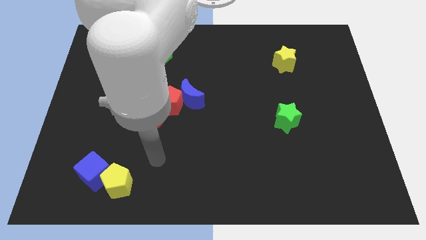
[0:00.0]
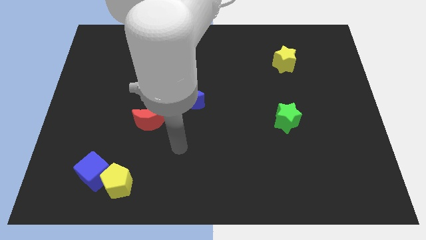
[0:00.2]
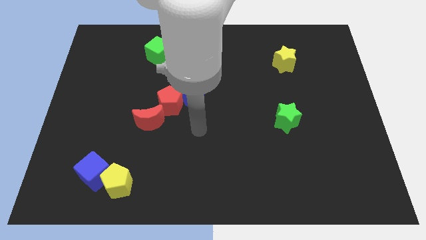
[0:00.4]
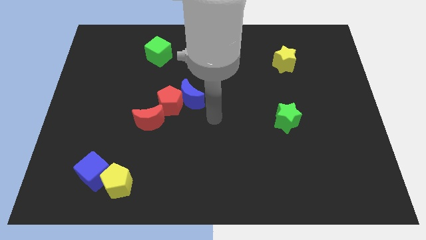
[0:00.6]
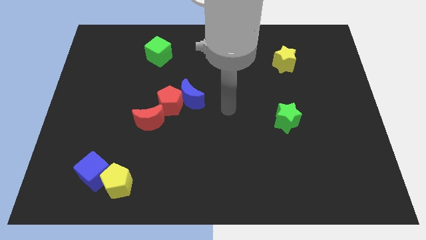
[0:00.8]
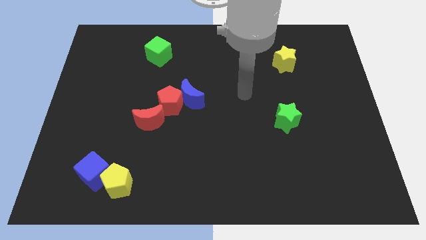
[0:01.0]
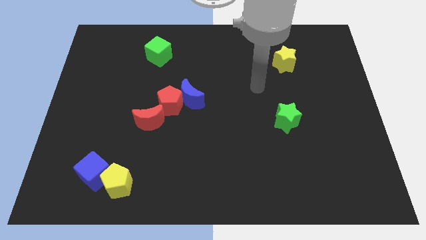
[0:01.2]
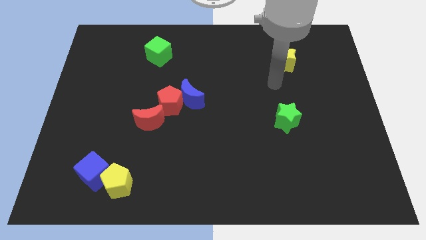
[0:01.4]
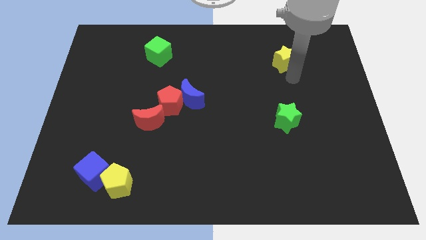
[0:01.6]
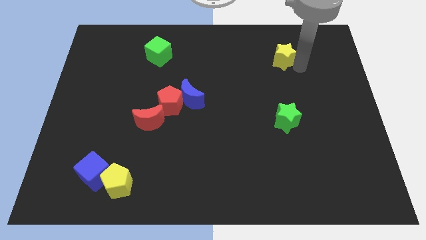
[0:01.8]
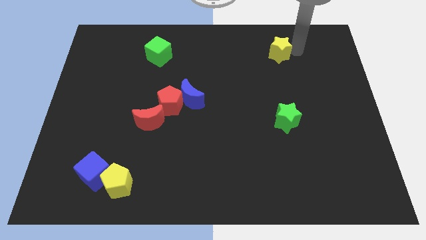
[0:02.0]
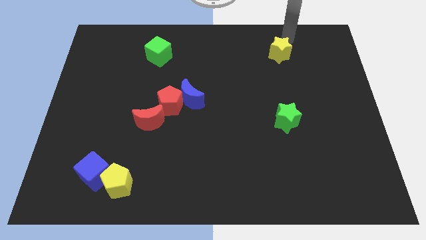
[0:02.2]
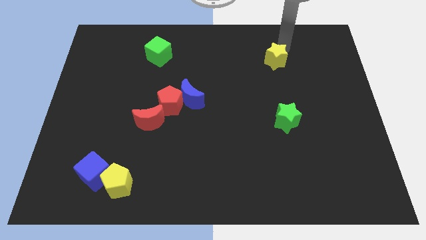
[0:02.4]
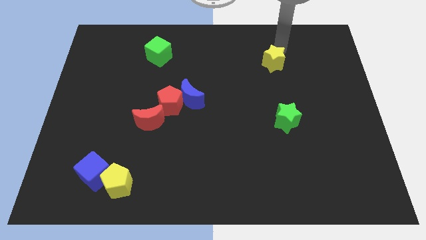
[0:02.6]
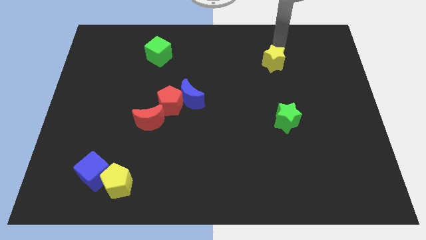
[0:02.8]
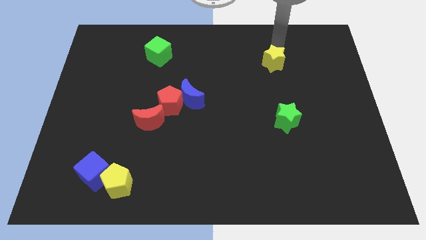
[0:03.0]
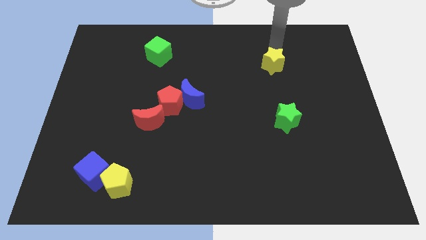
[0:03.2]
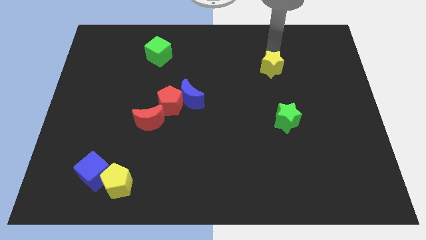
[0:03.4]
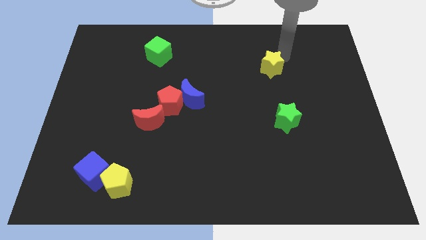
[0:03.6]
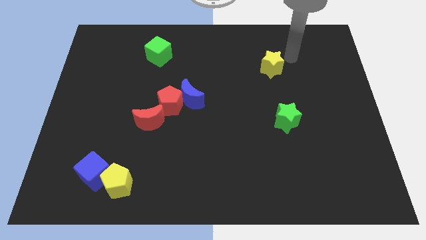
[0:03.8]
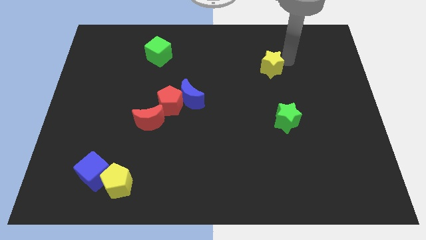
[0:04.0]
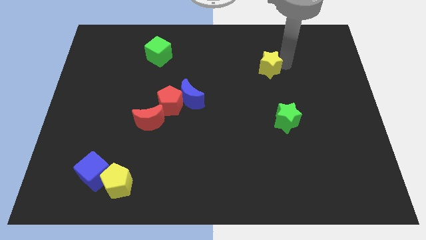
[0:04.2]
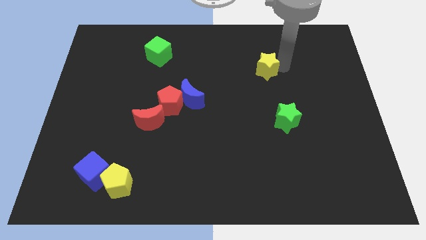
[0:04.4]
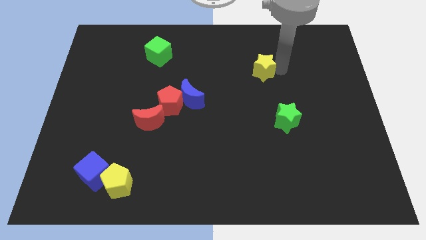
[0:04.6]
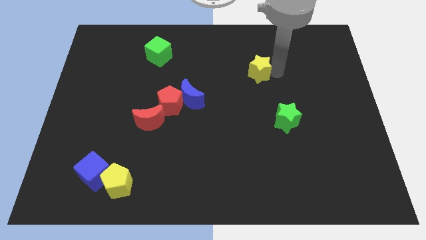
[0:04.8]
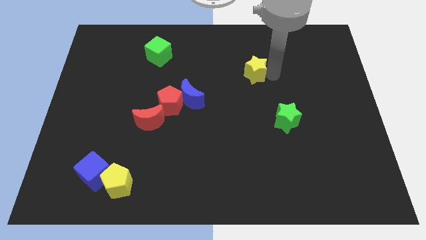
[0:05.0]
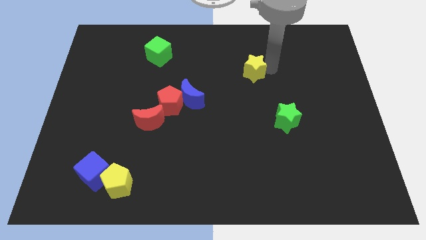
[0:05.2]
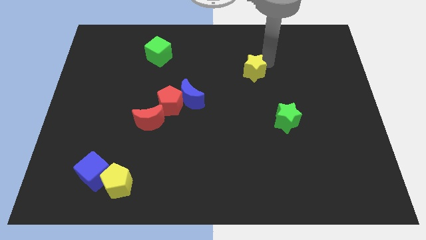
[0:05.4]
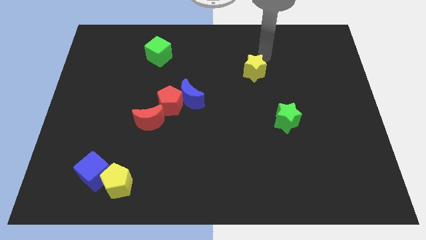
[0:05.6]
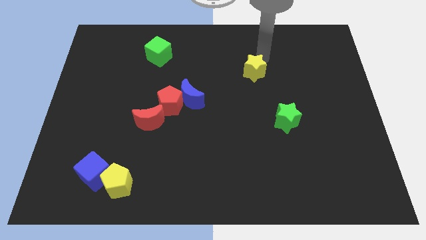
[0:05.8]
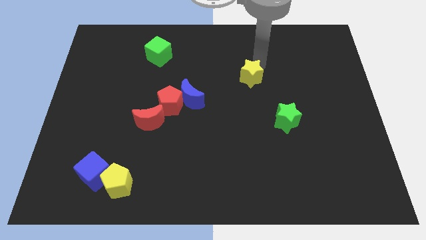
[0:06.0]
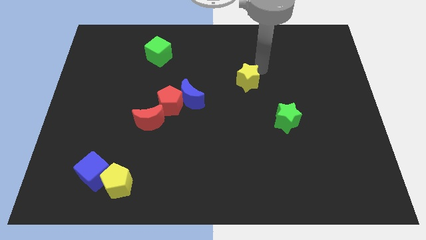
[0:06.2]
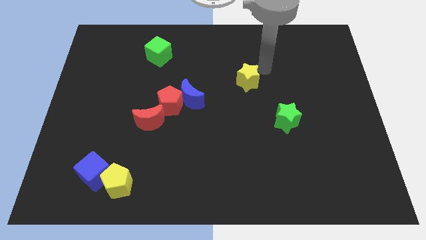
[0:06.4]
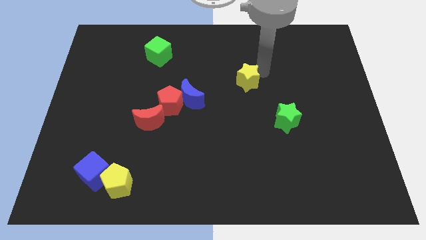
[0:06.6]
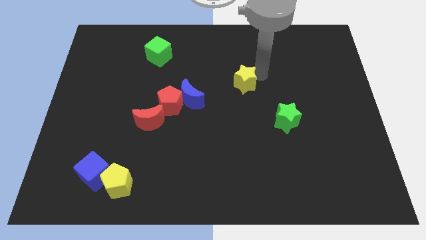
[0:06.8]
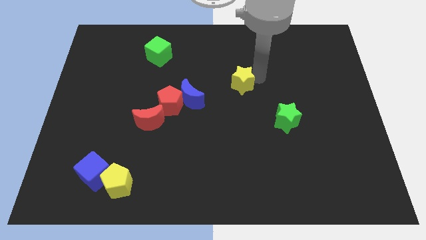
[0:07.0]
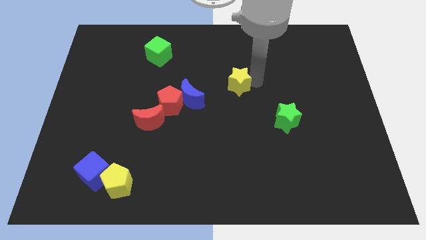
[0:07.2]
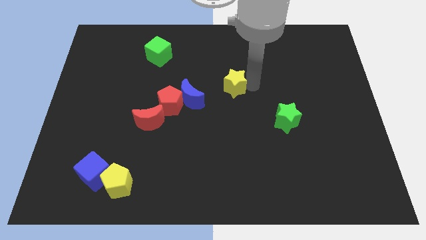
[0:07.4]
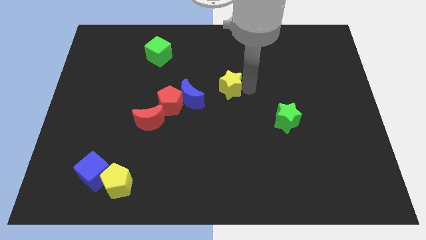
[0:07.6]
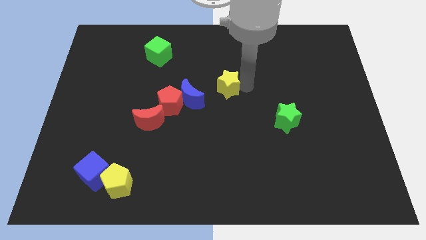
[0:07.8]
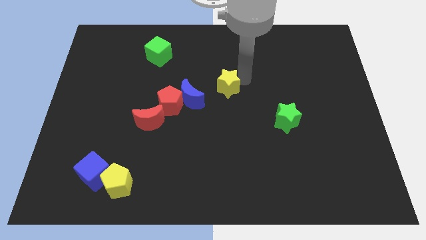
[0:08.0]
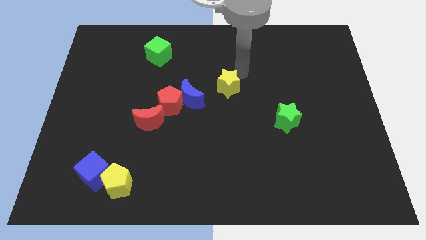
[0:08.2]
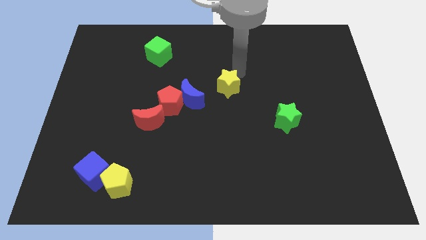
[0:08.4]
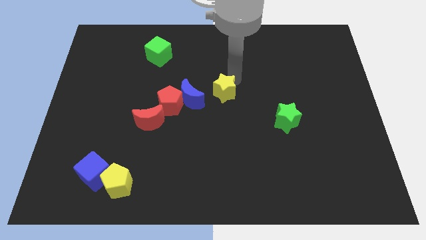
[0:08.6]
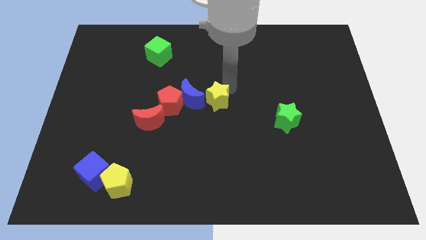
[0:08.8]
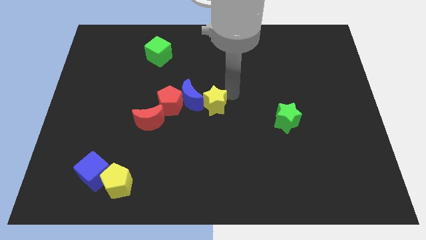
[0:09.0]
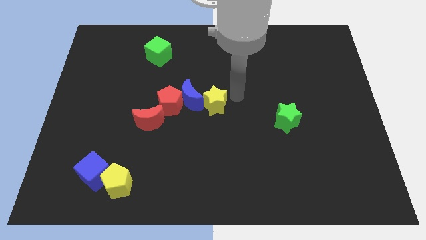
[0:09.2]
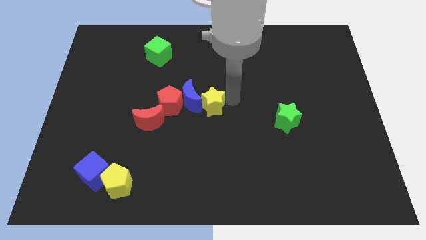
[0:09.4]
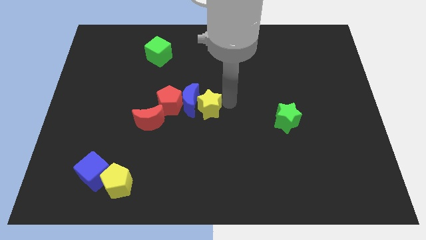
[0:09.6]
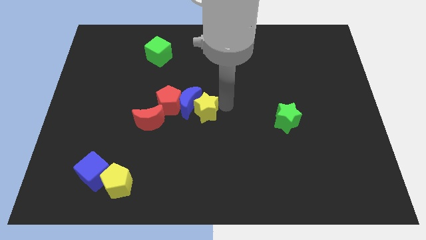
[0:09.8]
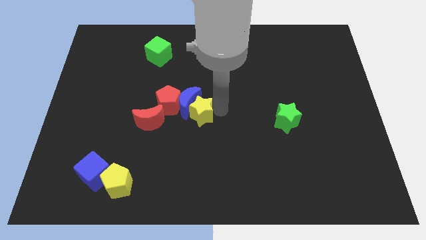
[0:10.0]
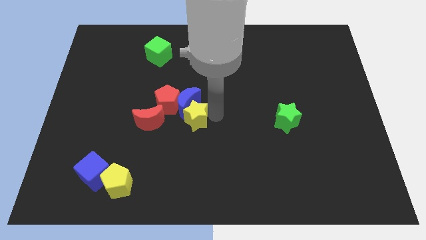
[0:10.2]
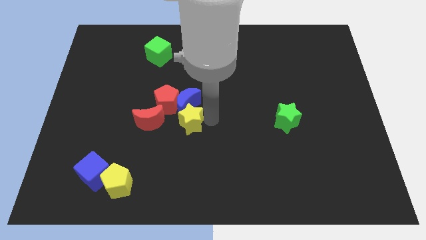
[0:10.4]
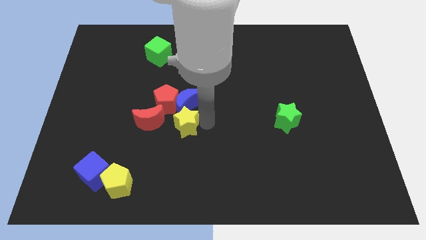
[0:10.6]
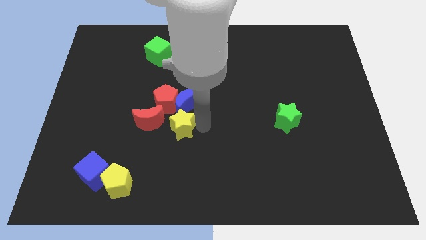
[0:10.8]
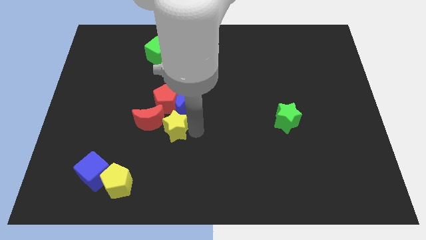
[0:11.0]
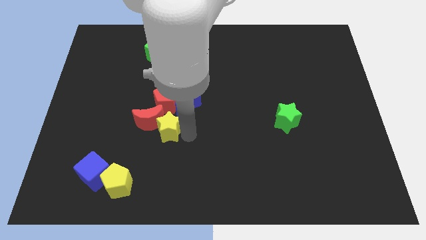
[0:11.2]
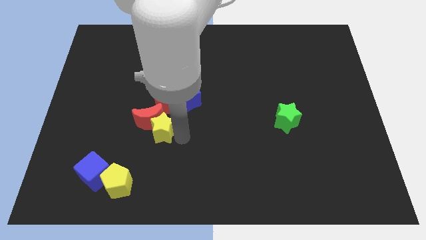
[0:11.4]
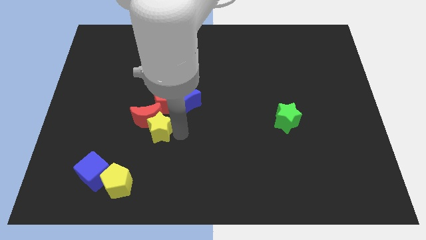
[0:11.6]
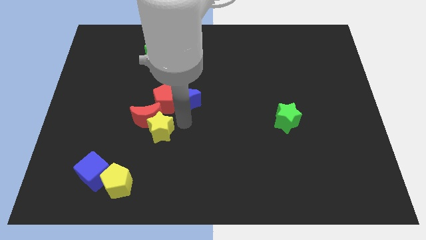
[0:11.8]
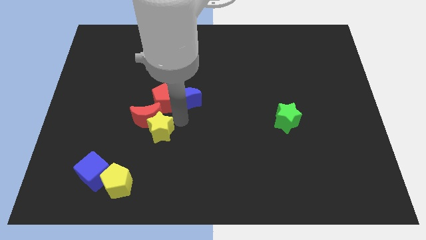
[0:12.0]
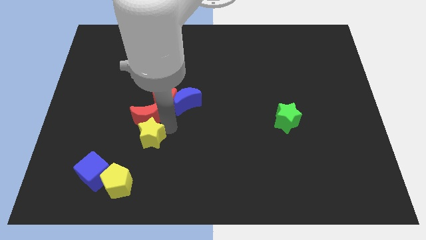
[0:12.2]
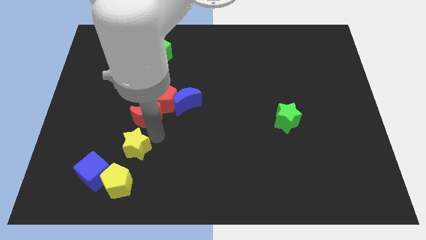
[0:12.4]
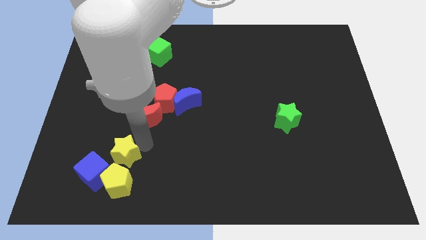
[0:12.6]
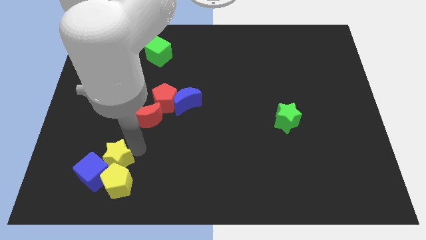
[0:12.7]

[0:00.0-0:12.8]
slide the yellow star towards the blue cube

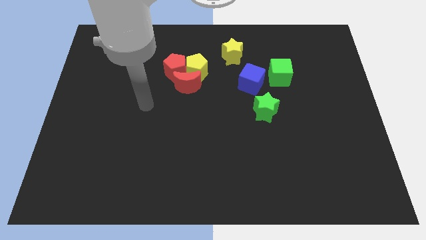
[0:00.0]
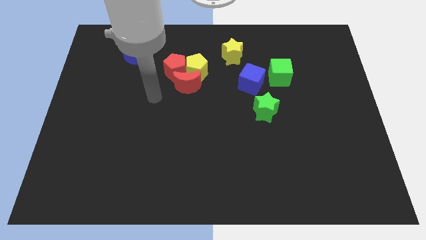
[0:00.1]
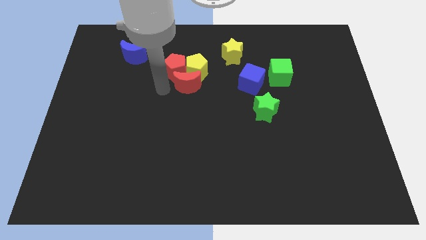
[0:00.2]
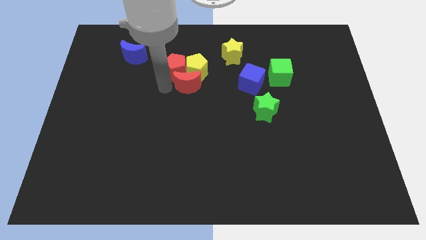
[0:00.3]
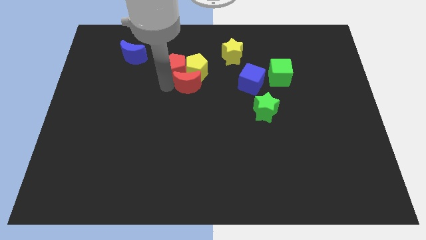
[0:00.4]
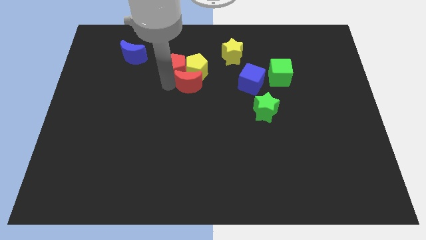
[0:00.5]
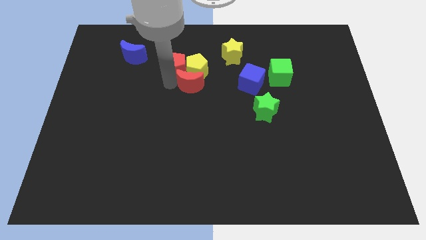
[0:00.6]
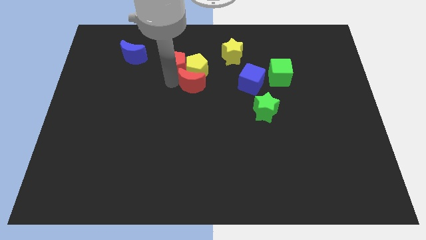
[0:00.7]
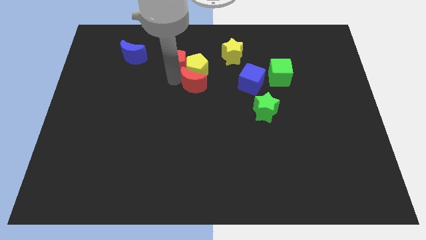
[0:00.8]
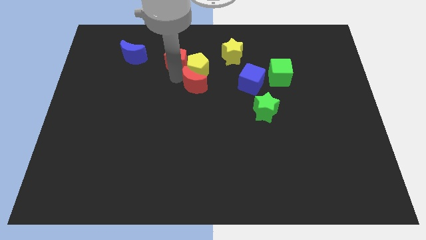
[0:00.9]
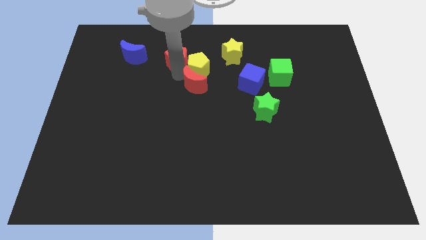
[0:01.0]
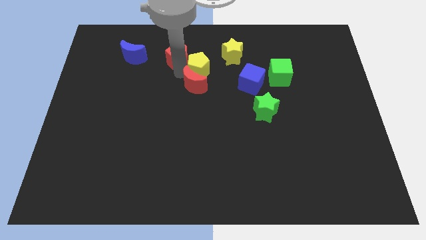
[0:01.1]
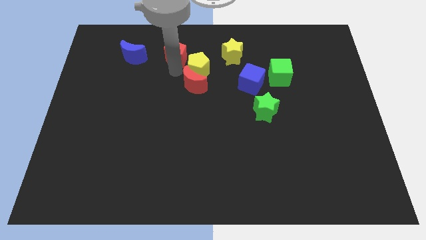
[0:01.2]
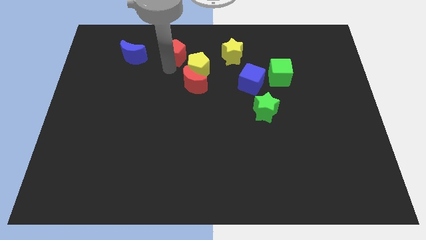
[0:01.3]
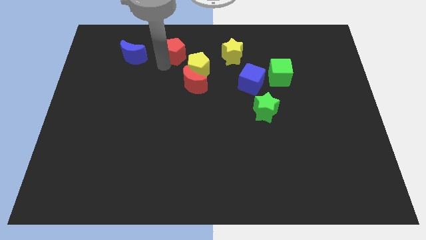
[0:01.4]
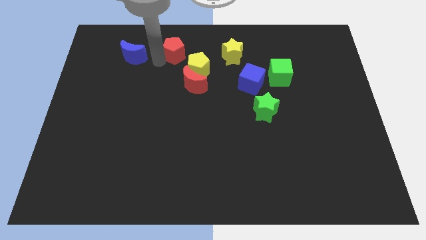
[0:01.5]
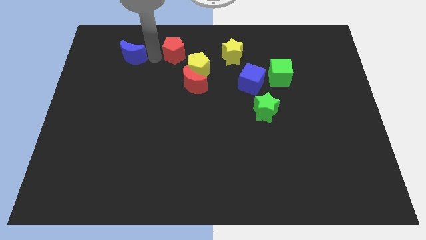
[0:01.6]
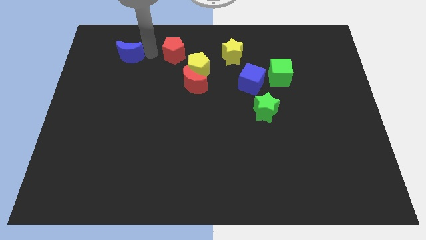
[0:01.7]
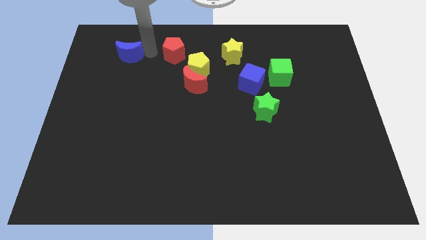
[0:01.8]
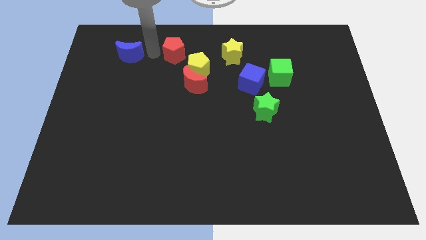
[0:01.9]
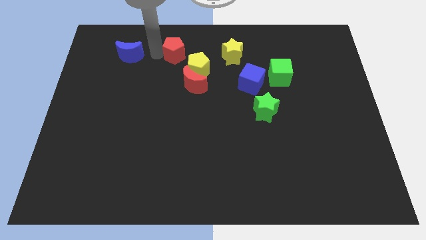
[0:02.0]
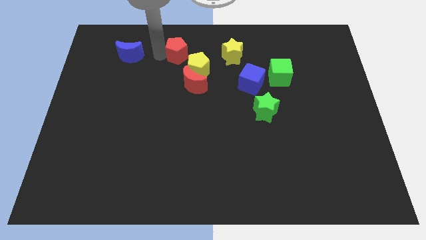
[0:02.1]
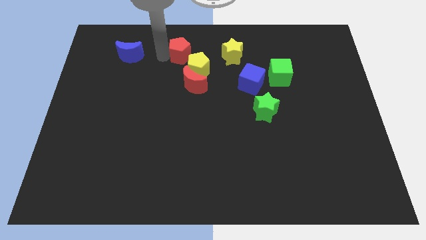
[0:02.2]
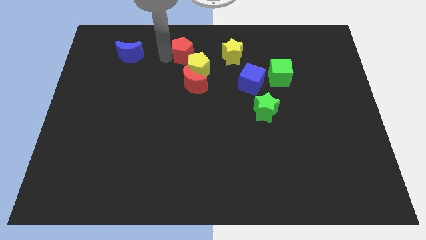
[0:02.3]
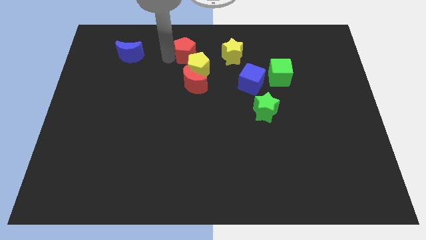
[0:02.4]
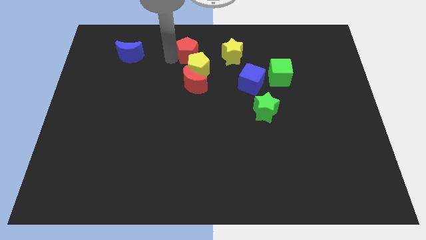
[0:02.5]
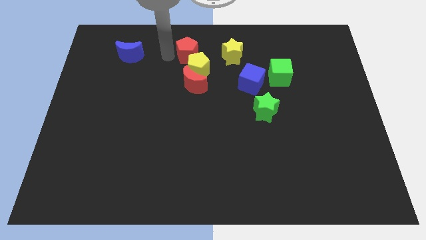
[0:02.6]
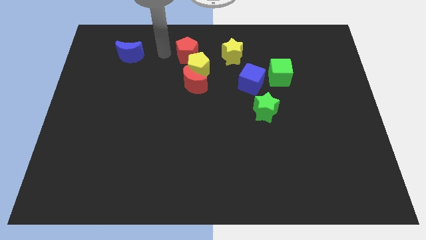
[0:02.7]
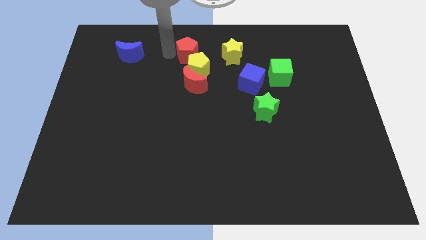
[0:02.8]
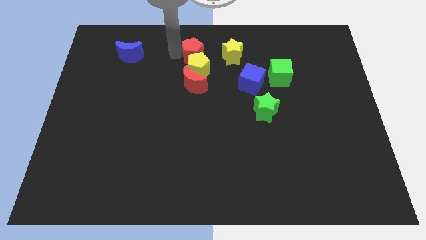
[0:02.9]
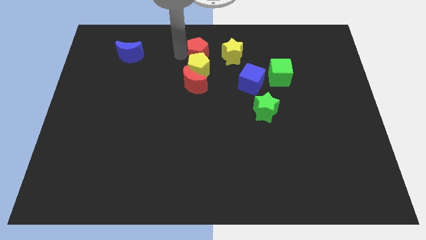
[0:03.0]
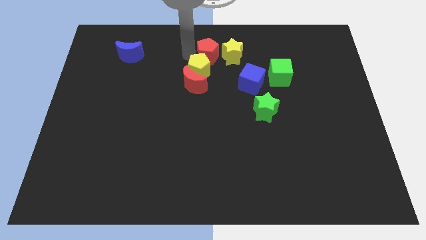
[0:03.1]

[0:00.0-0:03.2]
push the red pentagon to the yellow star
